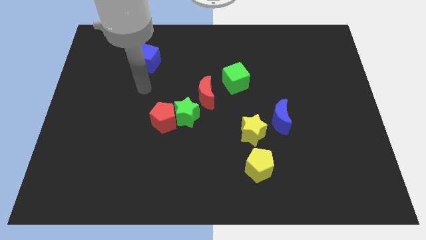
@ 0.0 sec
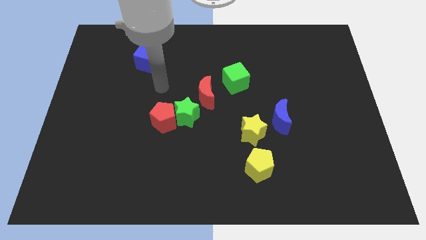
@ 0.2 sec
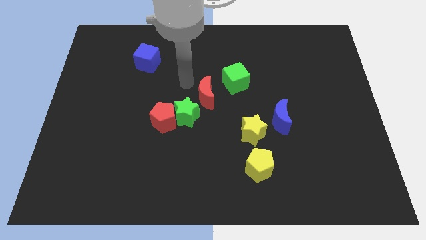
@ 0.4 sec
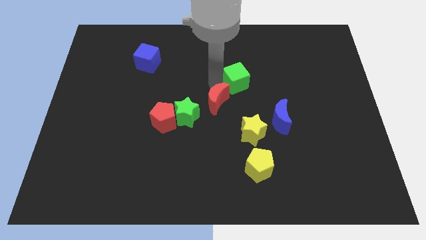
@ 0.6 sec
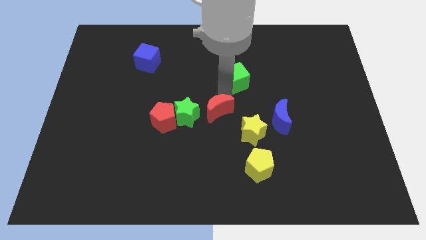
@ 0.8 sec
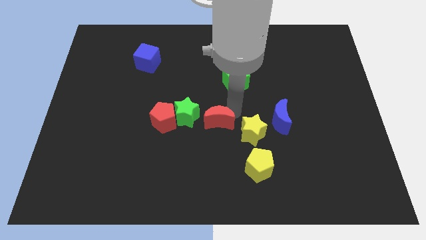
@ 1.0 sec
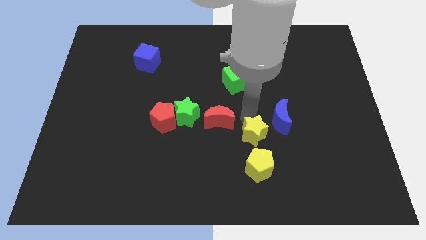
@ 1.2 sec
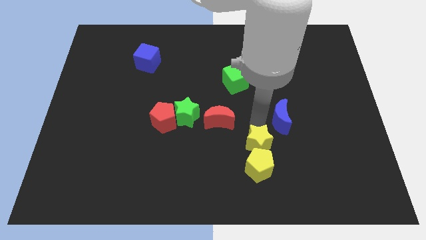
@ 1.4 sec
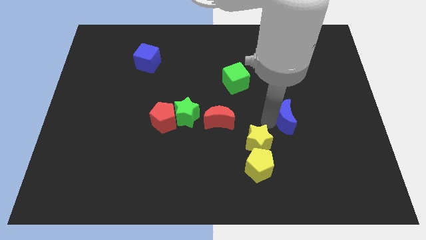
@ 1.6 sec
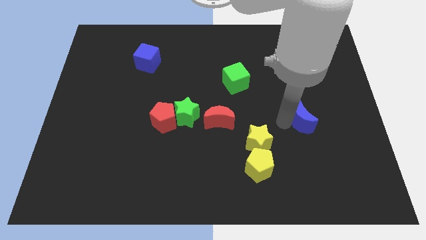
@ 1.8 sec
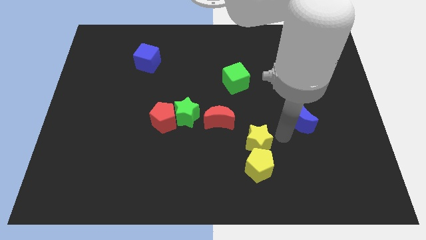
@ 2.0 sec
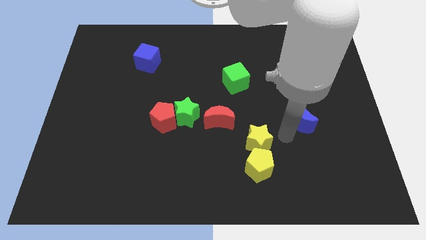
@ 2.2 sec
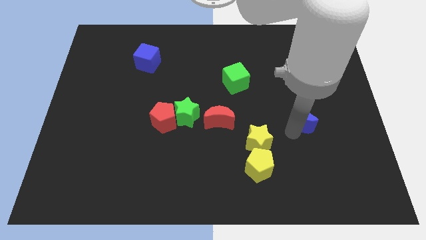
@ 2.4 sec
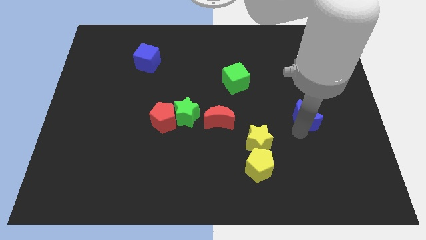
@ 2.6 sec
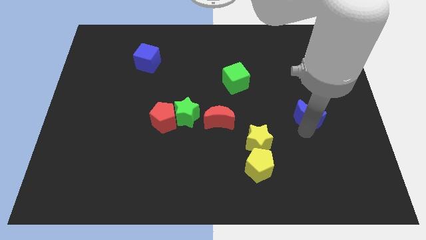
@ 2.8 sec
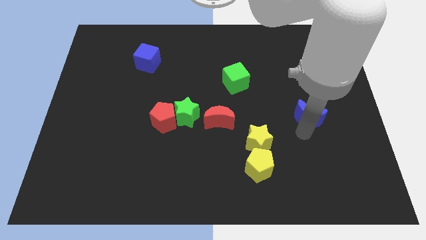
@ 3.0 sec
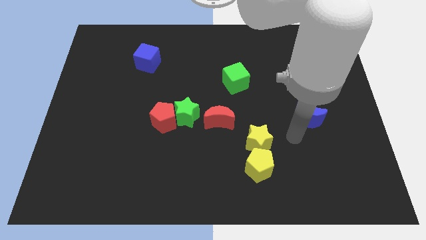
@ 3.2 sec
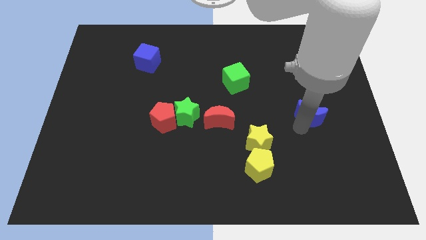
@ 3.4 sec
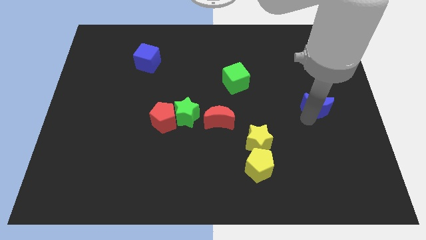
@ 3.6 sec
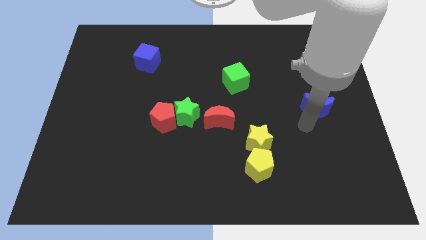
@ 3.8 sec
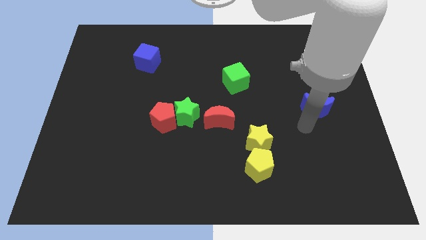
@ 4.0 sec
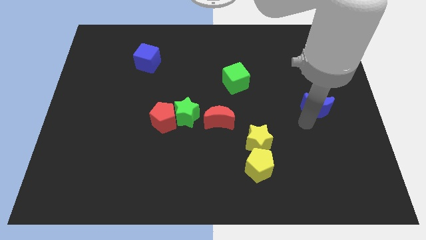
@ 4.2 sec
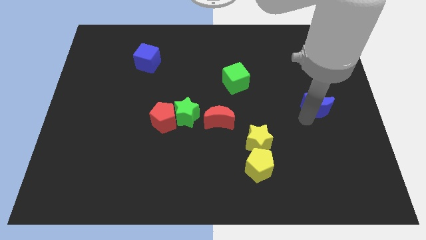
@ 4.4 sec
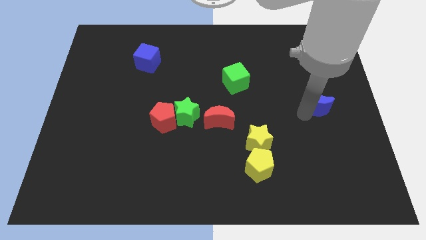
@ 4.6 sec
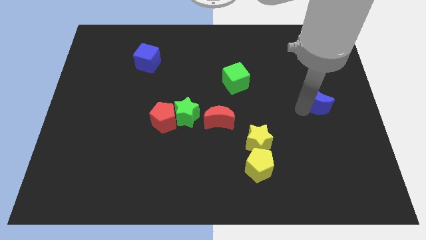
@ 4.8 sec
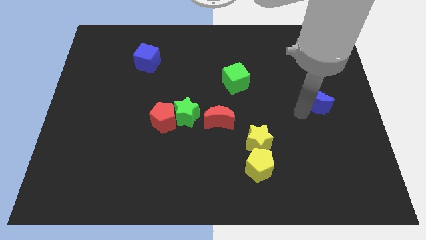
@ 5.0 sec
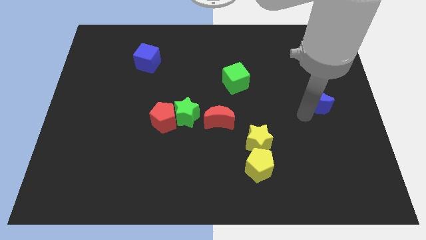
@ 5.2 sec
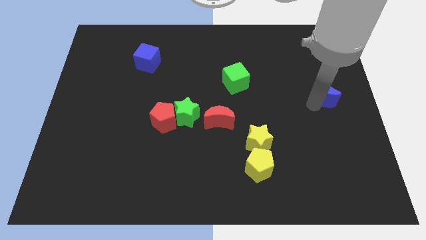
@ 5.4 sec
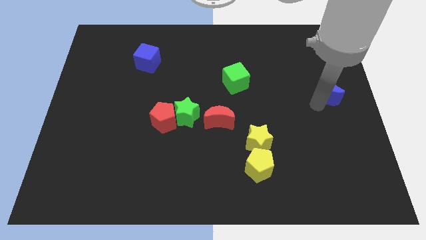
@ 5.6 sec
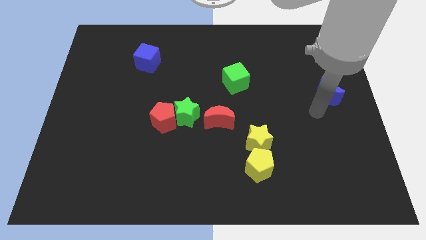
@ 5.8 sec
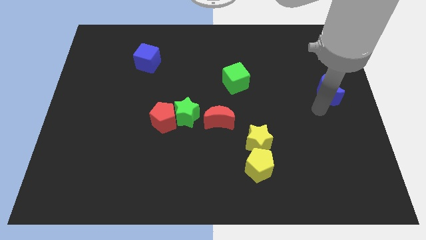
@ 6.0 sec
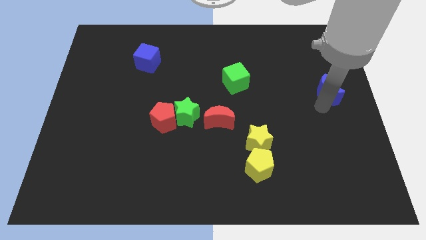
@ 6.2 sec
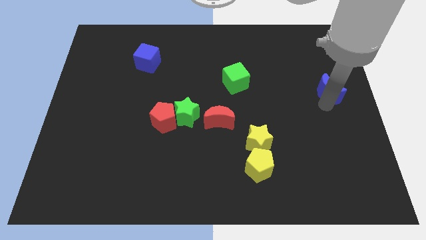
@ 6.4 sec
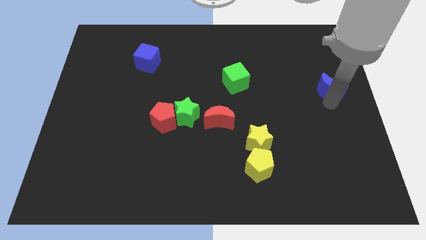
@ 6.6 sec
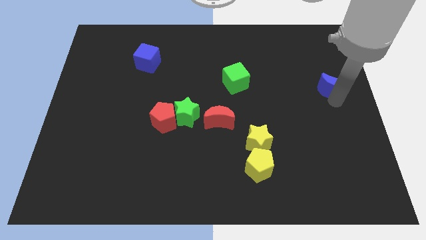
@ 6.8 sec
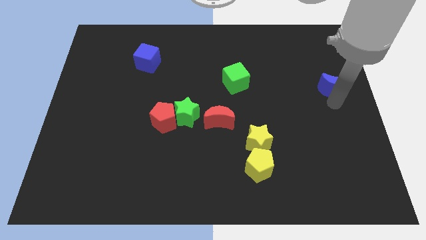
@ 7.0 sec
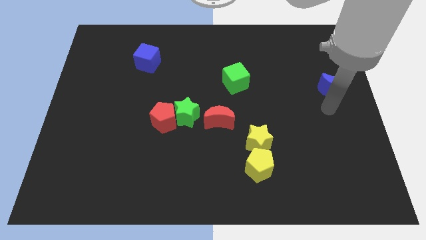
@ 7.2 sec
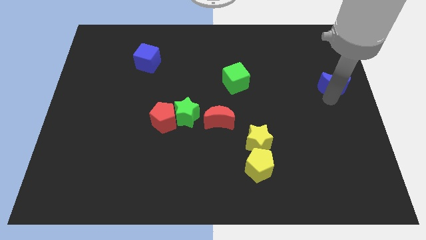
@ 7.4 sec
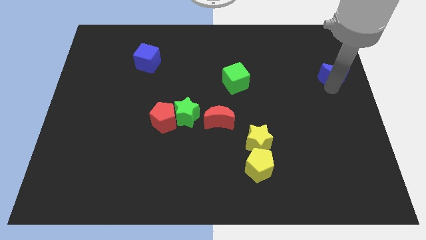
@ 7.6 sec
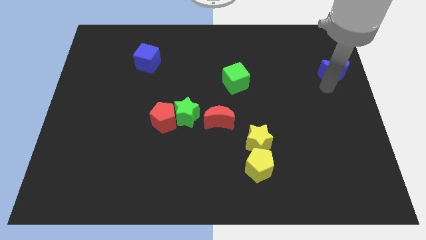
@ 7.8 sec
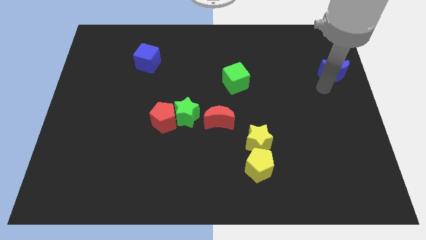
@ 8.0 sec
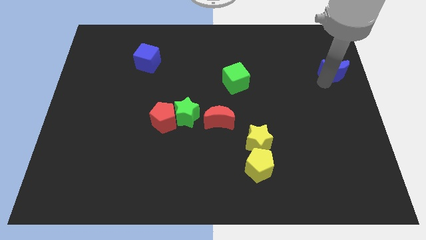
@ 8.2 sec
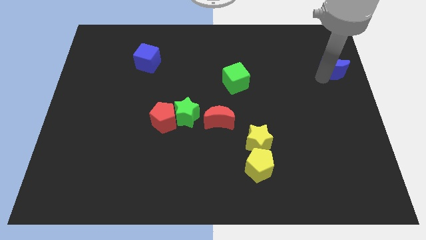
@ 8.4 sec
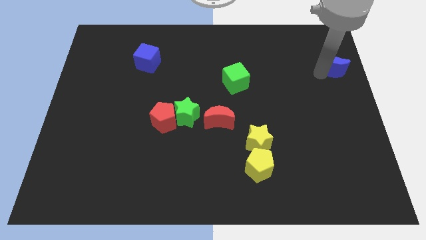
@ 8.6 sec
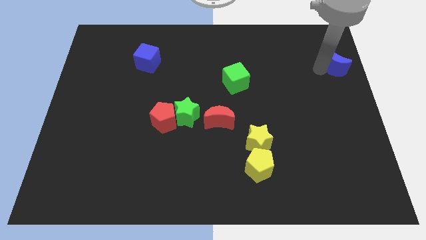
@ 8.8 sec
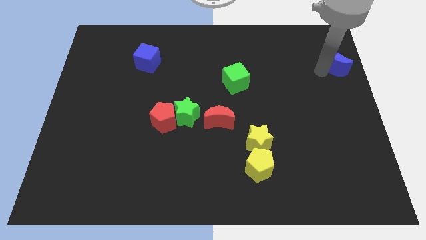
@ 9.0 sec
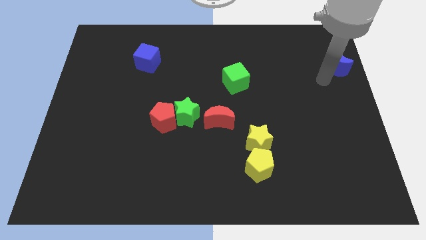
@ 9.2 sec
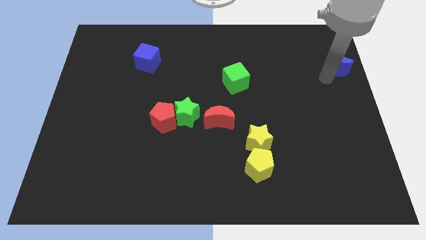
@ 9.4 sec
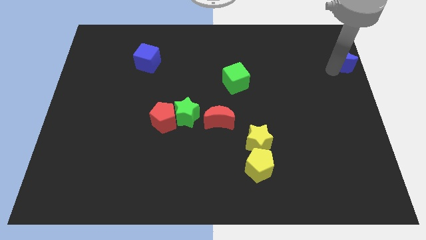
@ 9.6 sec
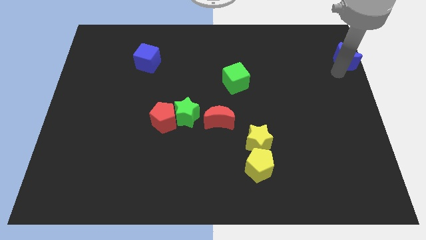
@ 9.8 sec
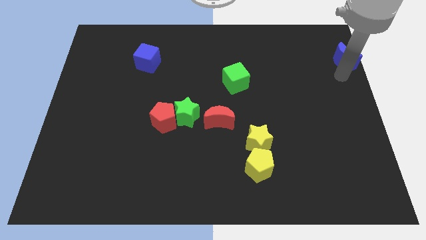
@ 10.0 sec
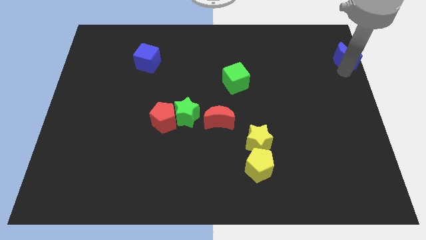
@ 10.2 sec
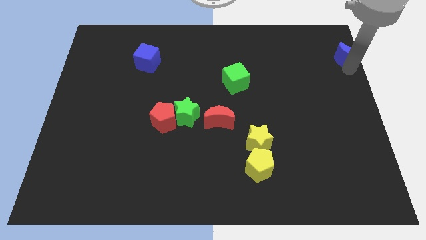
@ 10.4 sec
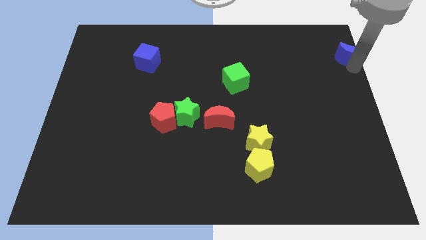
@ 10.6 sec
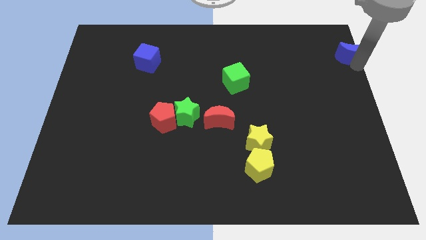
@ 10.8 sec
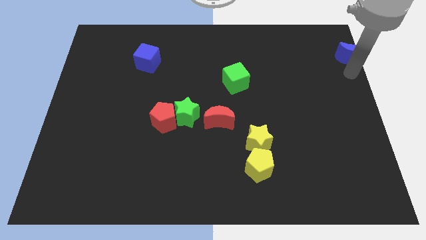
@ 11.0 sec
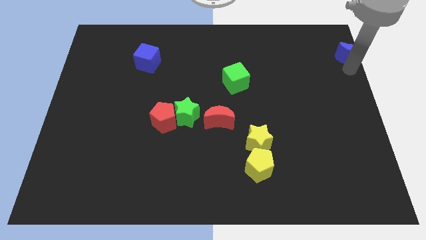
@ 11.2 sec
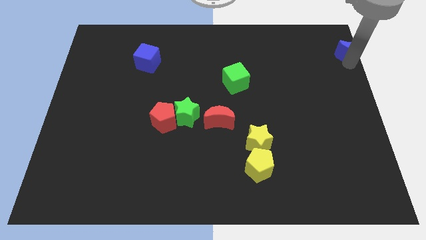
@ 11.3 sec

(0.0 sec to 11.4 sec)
move the blue moon to the top right corner

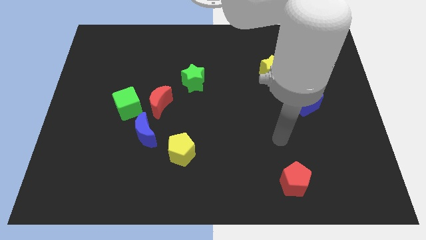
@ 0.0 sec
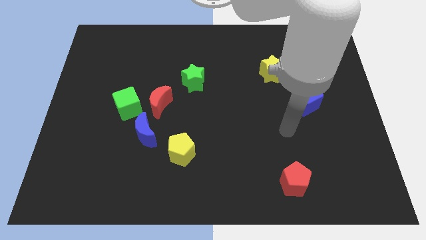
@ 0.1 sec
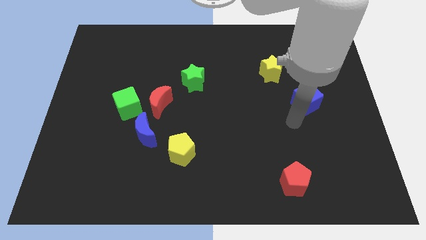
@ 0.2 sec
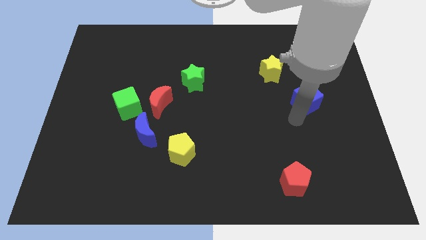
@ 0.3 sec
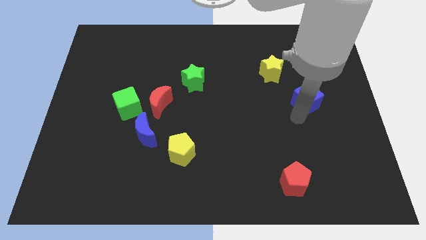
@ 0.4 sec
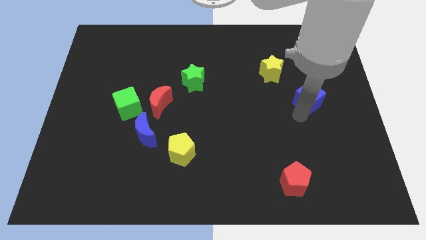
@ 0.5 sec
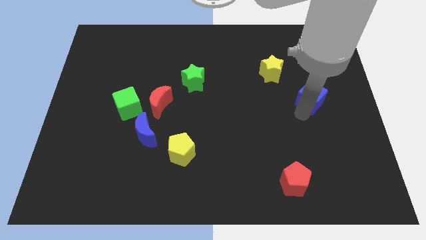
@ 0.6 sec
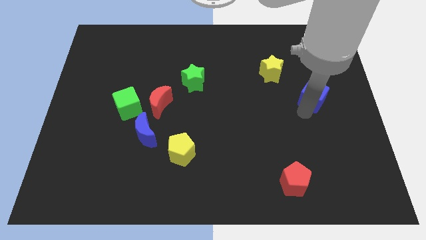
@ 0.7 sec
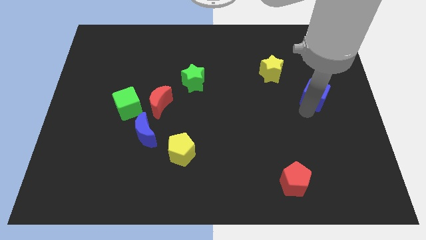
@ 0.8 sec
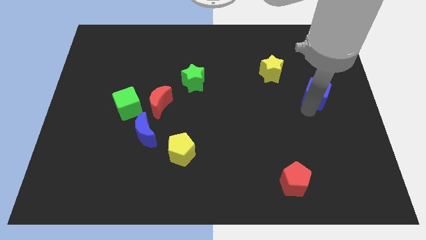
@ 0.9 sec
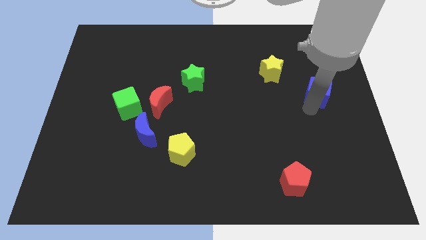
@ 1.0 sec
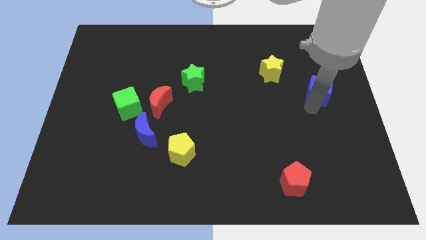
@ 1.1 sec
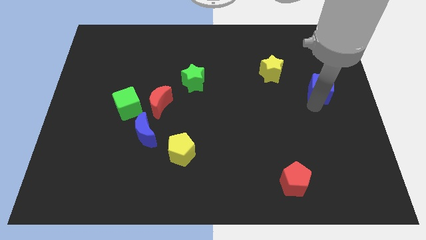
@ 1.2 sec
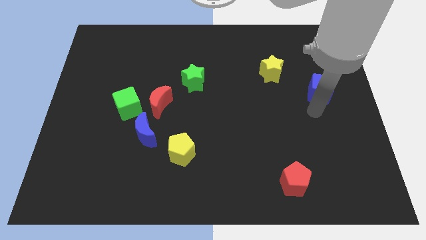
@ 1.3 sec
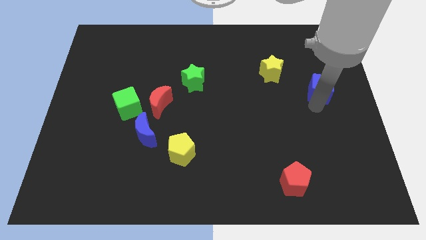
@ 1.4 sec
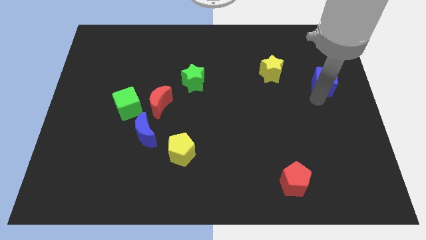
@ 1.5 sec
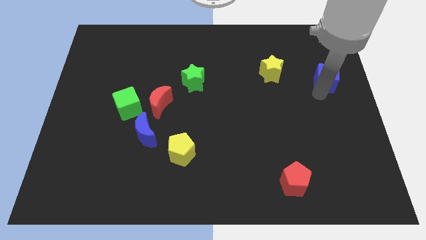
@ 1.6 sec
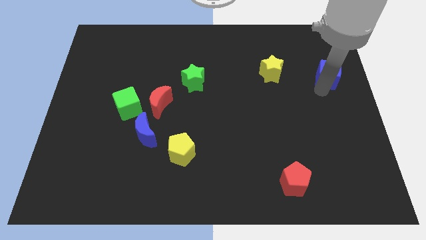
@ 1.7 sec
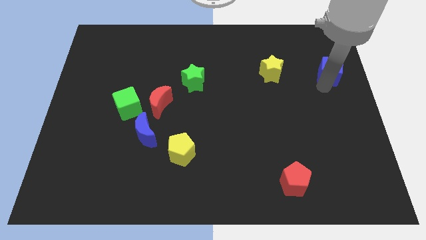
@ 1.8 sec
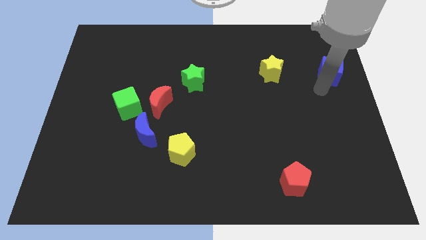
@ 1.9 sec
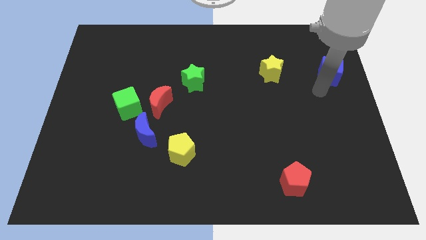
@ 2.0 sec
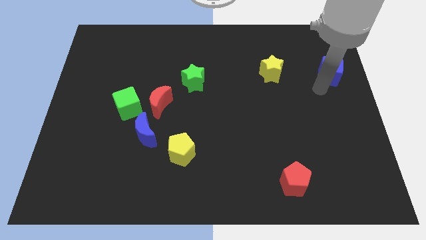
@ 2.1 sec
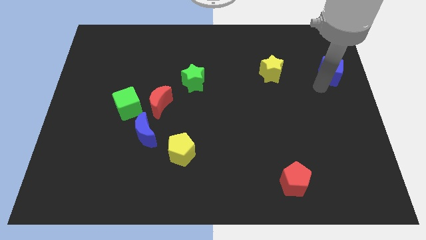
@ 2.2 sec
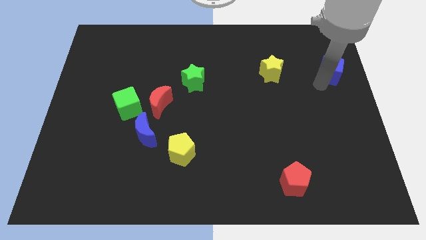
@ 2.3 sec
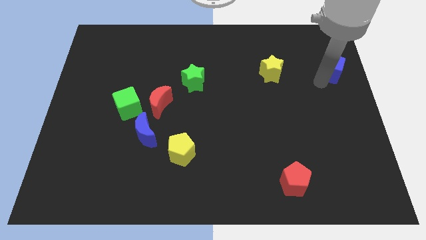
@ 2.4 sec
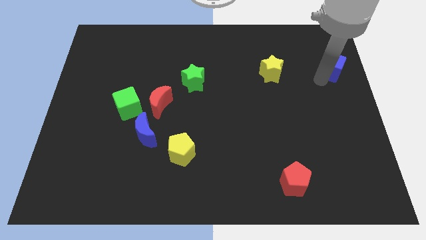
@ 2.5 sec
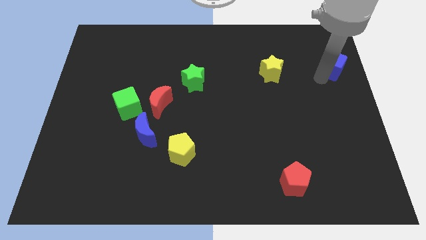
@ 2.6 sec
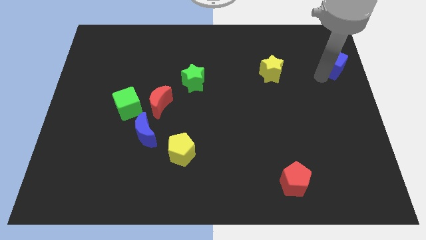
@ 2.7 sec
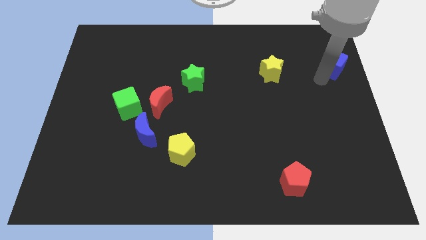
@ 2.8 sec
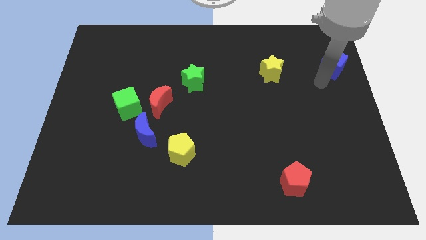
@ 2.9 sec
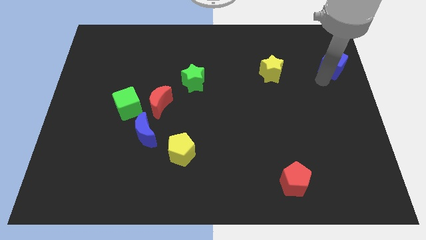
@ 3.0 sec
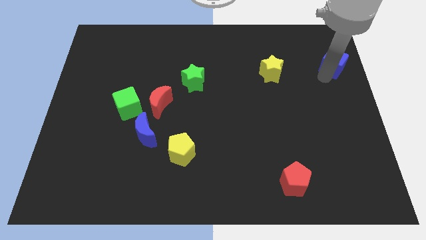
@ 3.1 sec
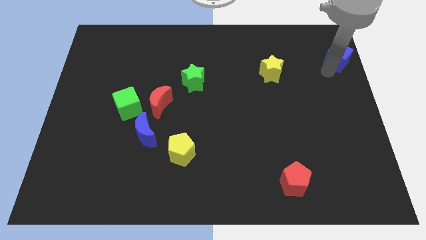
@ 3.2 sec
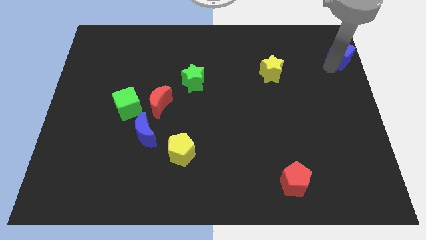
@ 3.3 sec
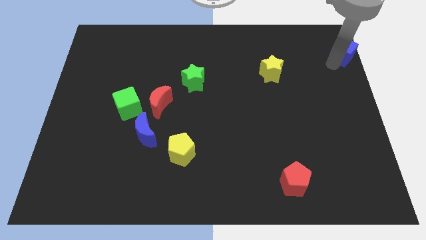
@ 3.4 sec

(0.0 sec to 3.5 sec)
slide the blue cube to the top right corner
